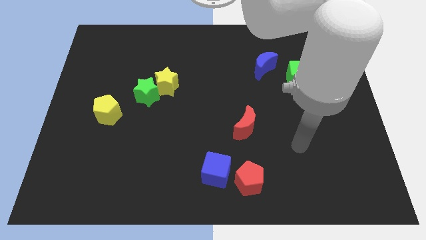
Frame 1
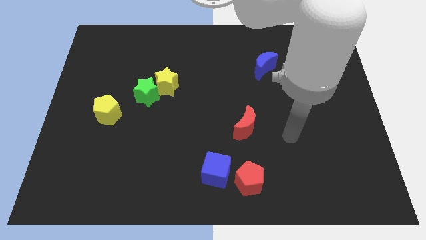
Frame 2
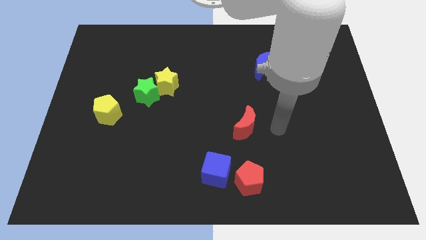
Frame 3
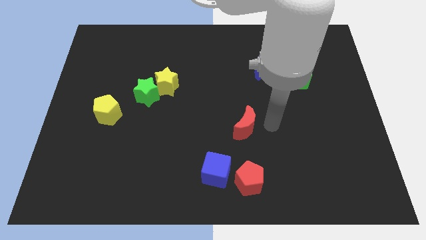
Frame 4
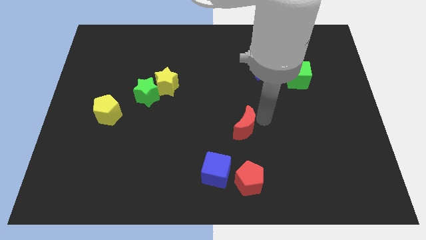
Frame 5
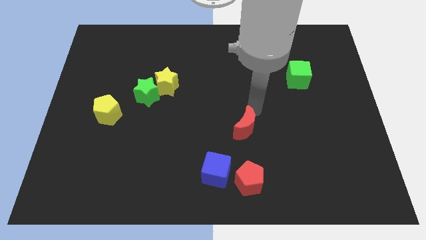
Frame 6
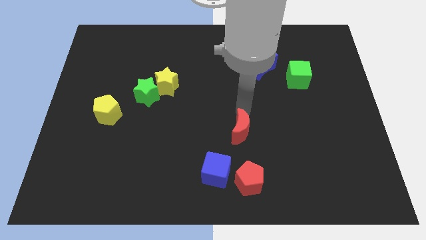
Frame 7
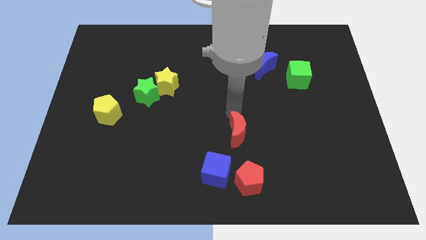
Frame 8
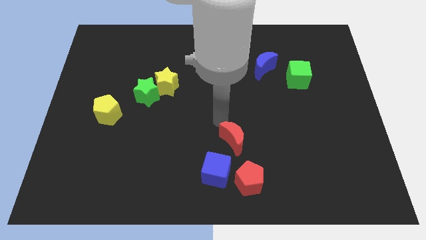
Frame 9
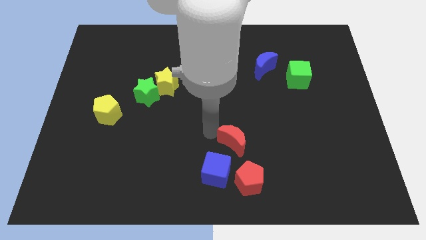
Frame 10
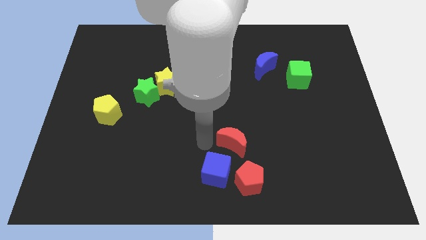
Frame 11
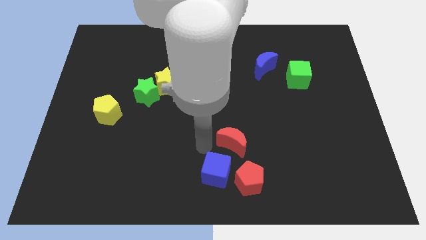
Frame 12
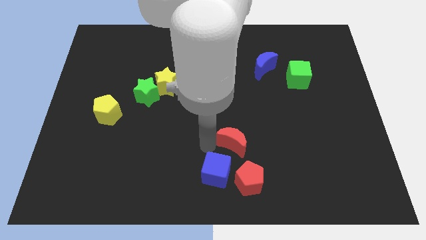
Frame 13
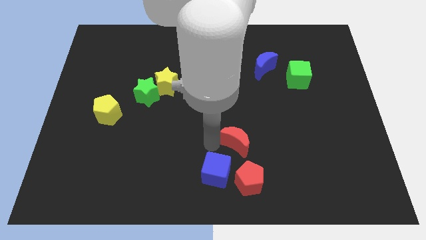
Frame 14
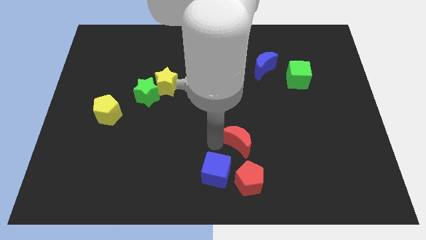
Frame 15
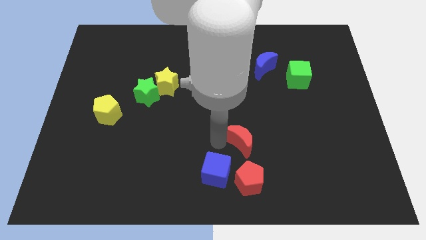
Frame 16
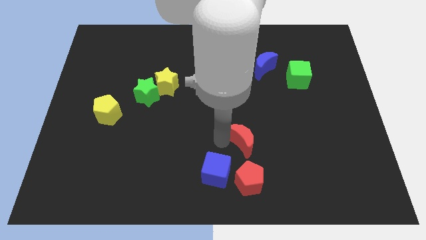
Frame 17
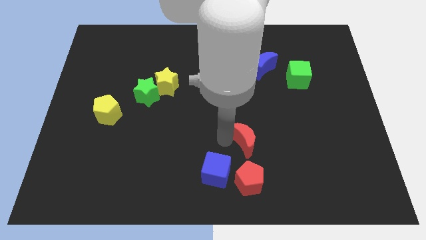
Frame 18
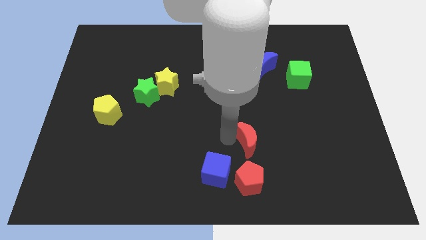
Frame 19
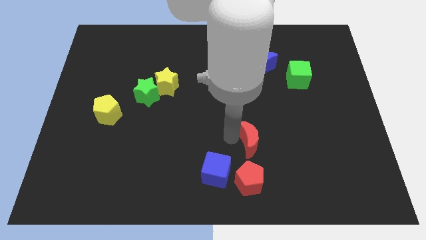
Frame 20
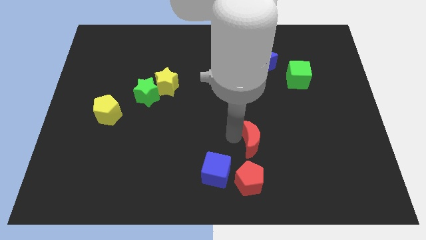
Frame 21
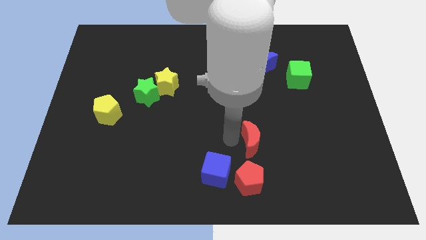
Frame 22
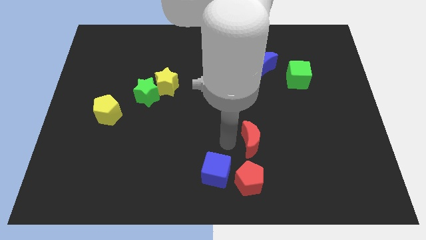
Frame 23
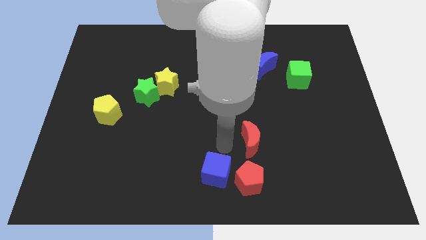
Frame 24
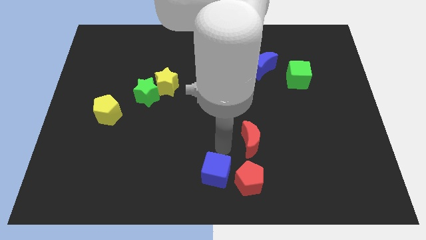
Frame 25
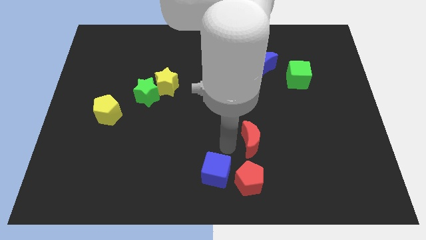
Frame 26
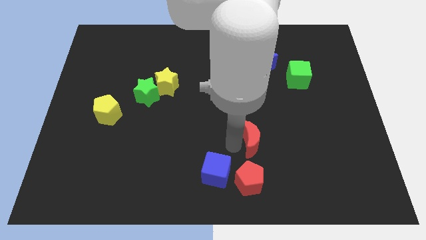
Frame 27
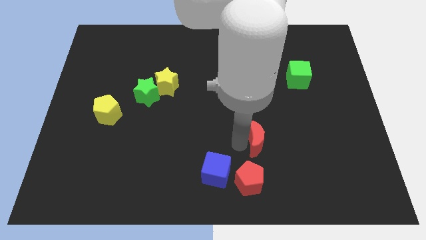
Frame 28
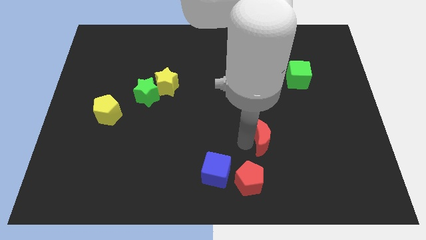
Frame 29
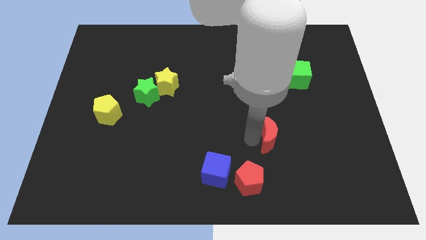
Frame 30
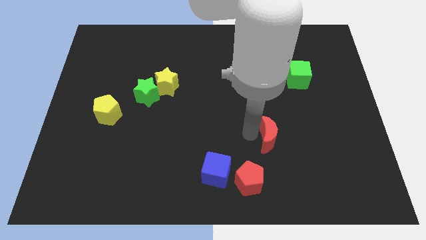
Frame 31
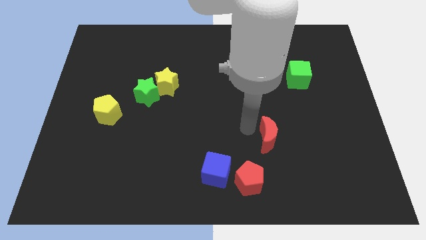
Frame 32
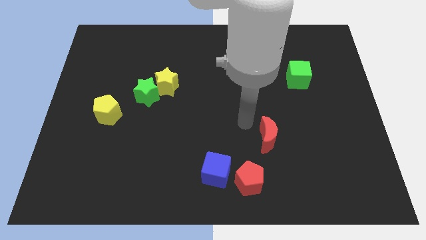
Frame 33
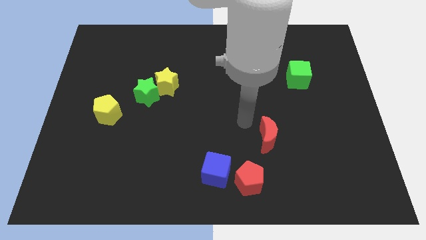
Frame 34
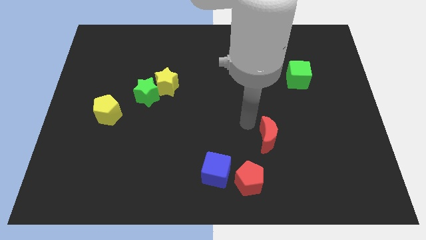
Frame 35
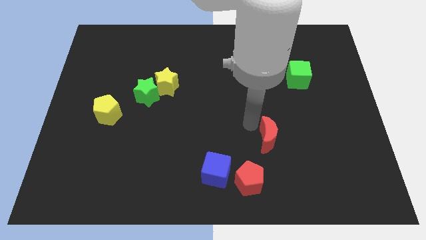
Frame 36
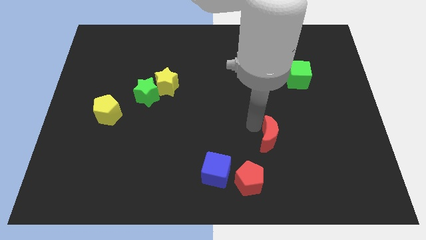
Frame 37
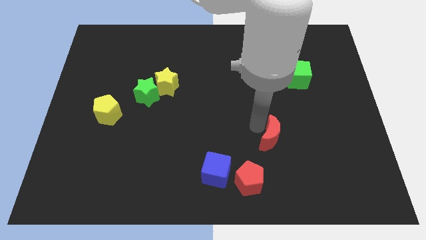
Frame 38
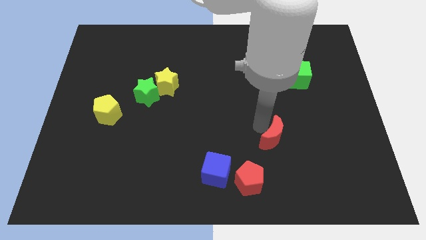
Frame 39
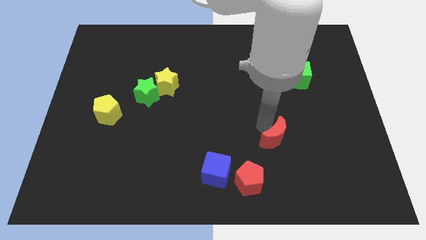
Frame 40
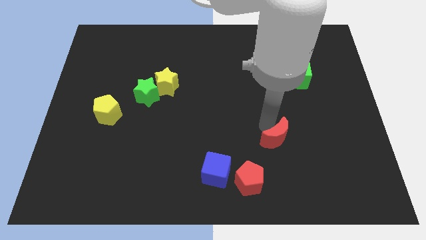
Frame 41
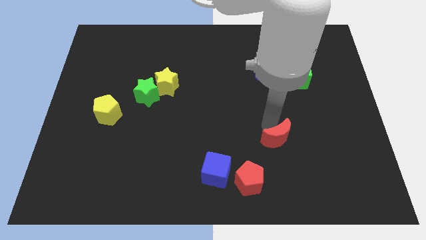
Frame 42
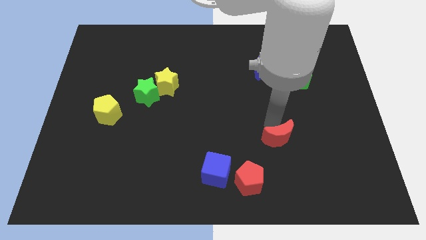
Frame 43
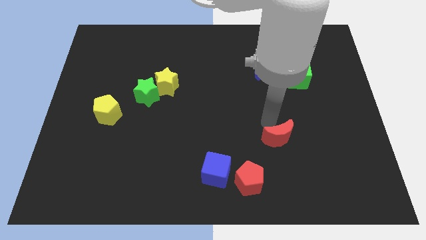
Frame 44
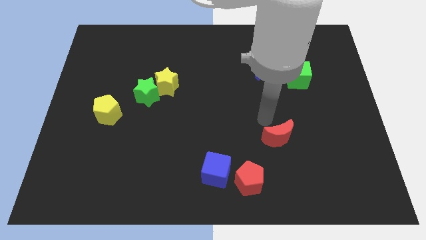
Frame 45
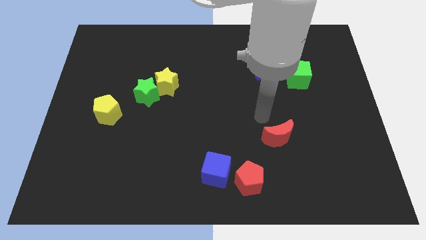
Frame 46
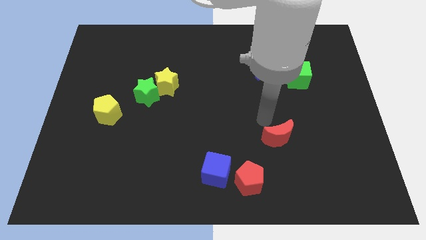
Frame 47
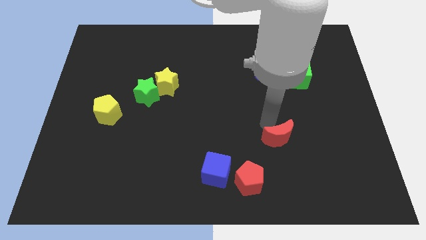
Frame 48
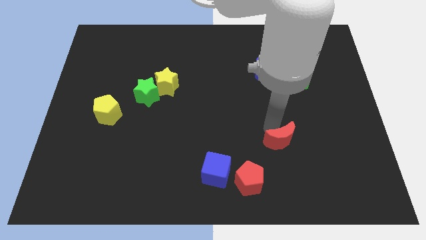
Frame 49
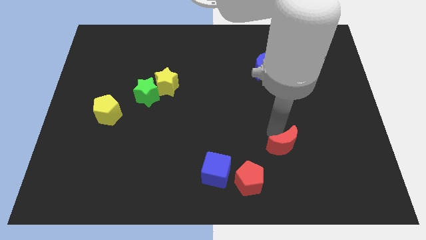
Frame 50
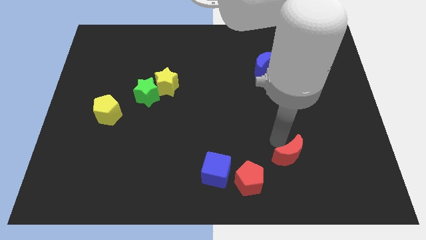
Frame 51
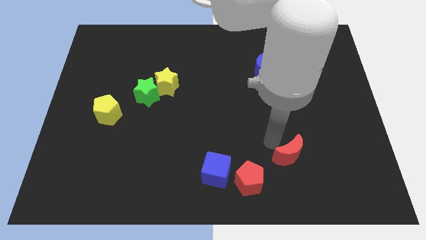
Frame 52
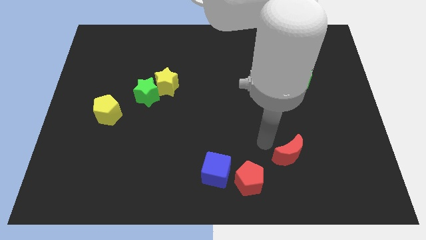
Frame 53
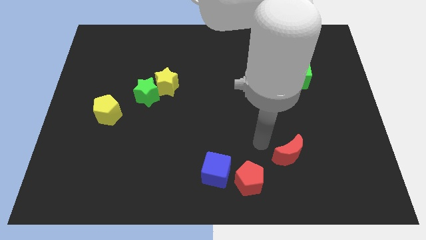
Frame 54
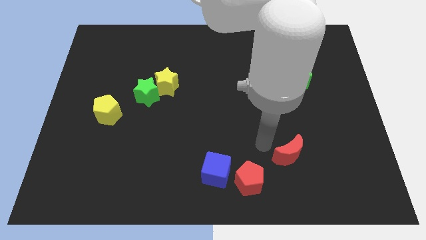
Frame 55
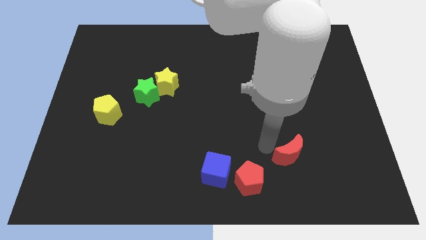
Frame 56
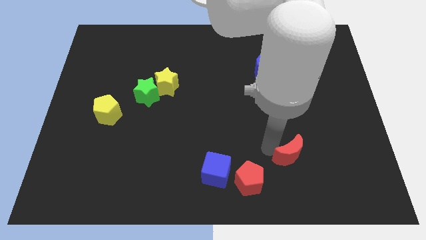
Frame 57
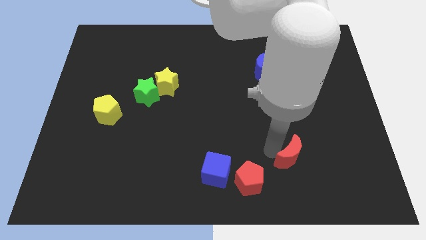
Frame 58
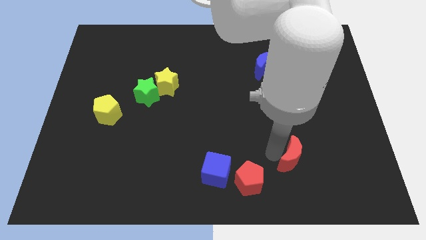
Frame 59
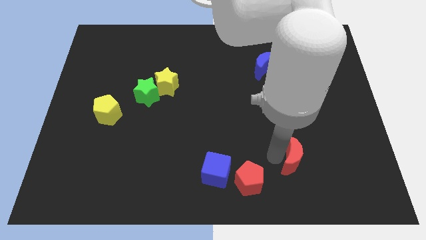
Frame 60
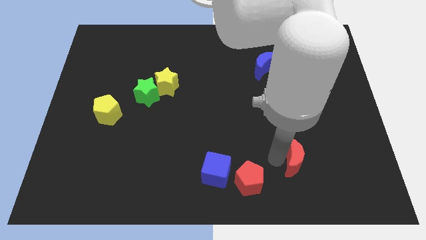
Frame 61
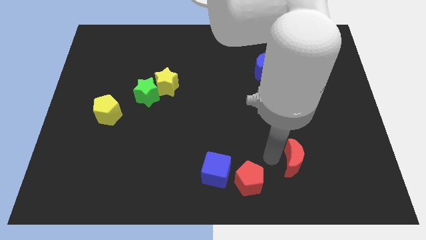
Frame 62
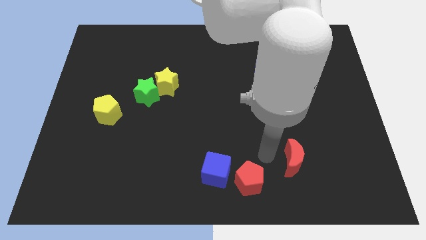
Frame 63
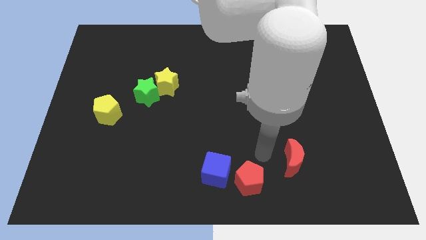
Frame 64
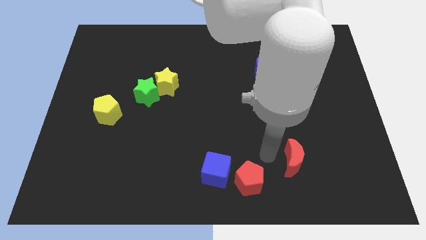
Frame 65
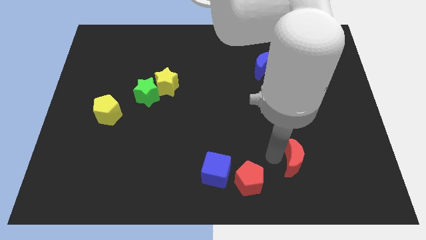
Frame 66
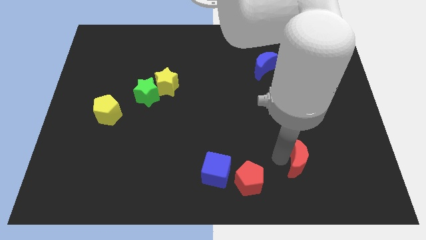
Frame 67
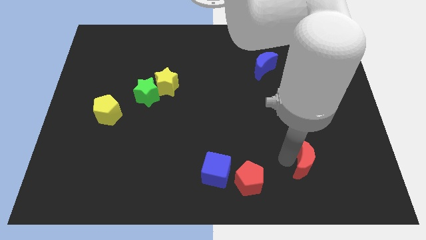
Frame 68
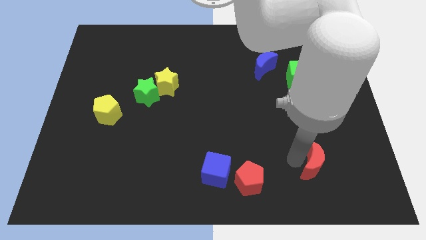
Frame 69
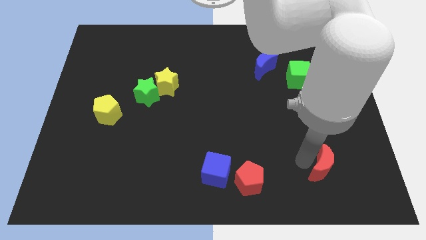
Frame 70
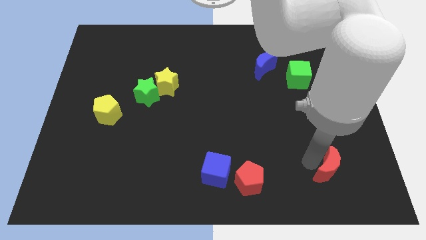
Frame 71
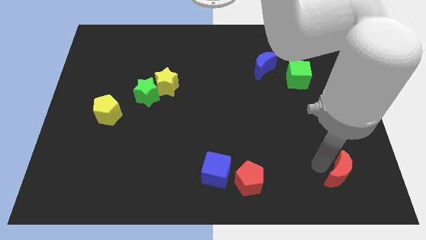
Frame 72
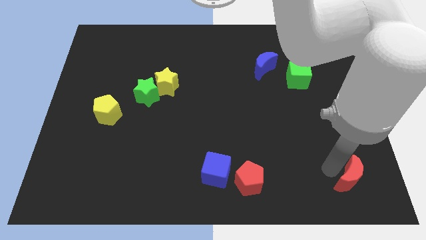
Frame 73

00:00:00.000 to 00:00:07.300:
move the red moon to the bottom right corner
